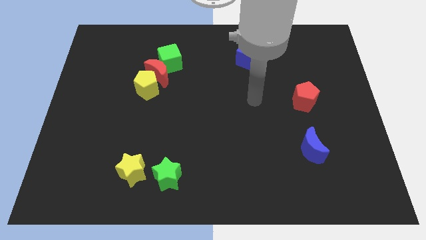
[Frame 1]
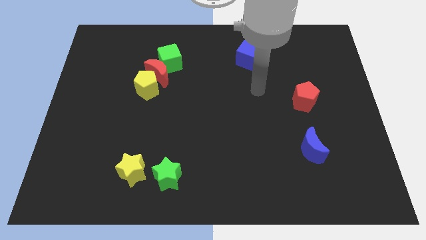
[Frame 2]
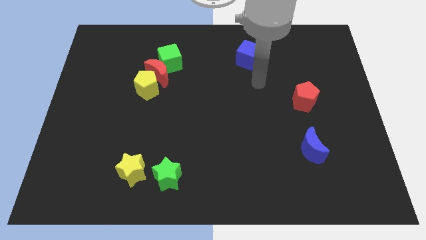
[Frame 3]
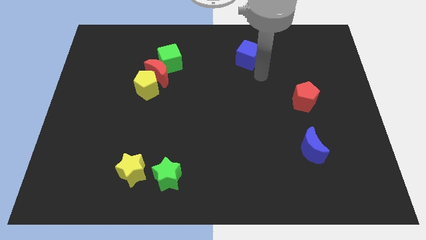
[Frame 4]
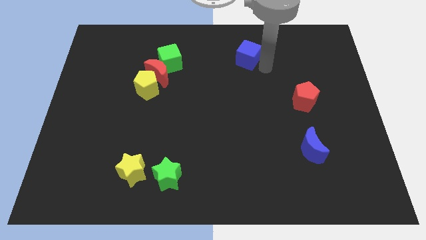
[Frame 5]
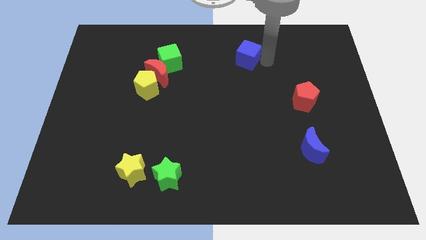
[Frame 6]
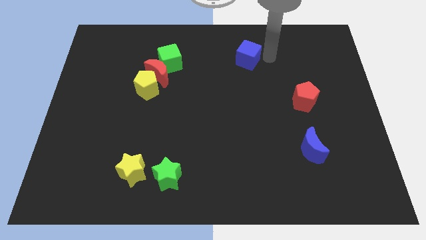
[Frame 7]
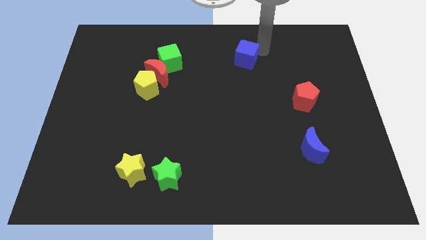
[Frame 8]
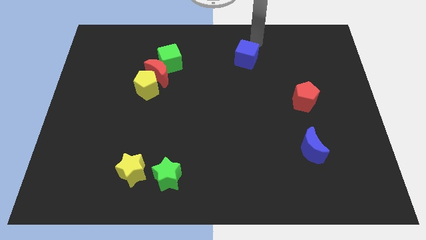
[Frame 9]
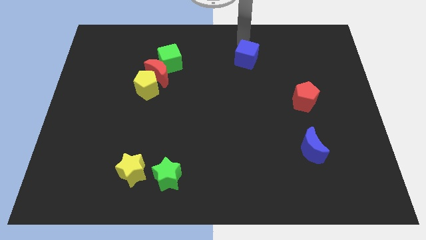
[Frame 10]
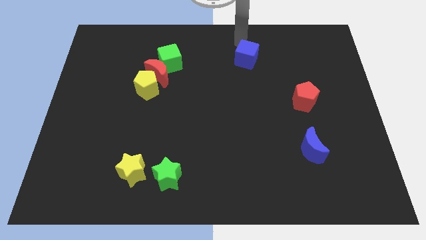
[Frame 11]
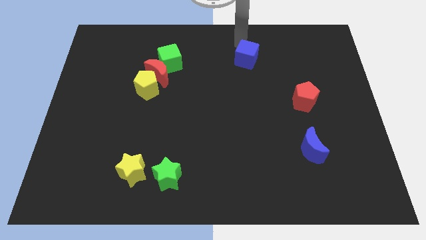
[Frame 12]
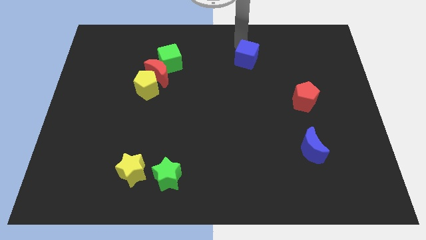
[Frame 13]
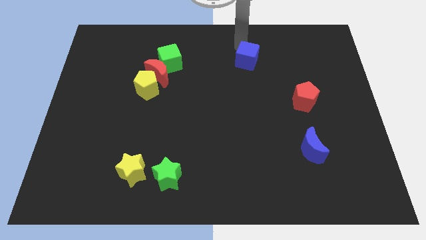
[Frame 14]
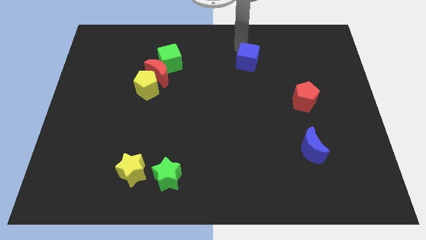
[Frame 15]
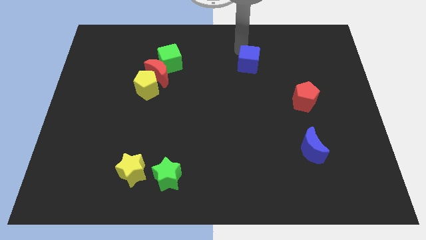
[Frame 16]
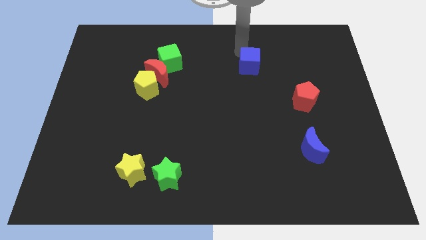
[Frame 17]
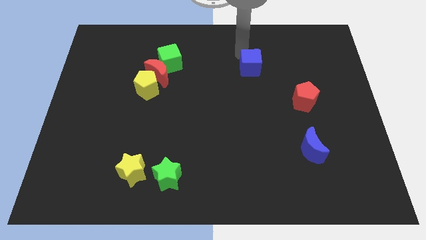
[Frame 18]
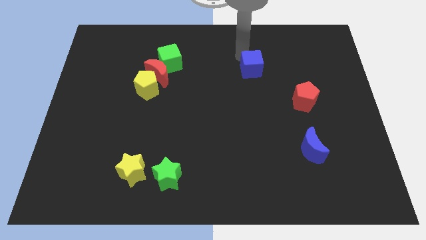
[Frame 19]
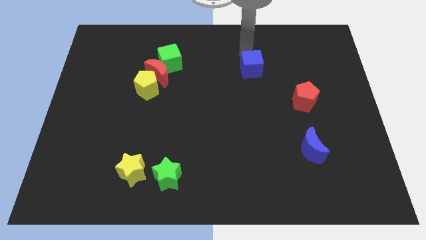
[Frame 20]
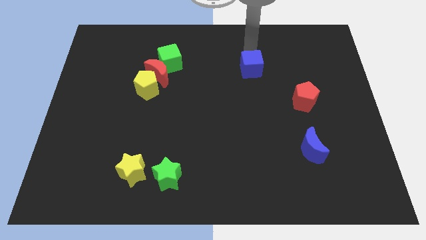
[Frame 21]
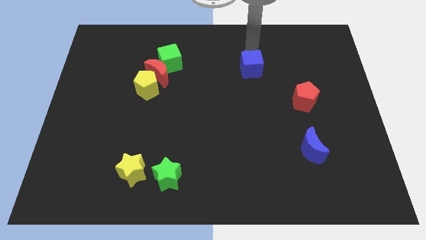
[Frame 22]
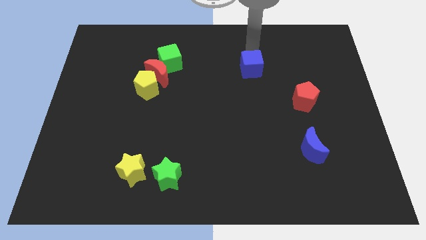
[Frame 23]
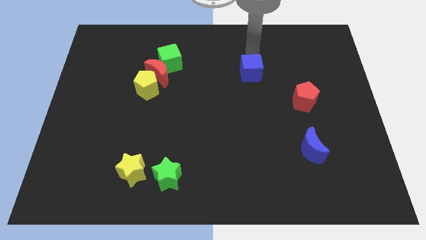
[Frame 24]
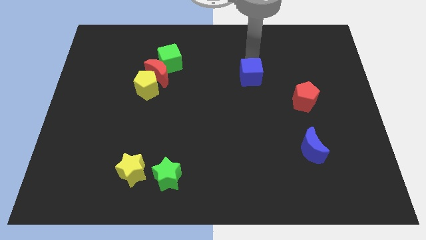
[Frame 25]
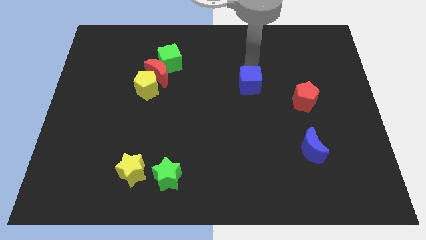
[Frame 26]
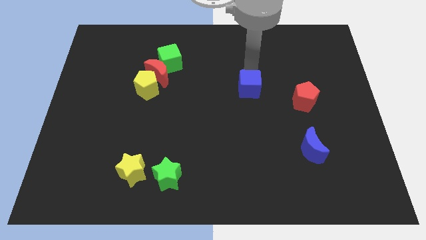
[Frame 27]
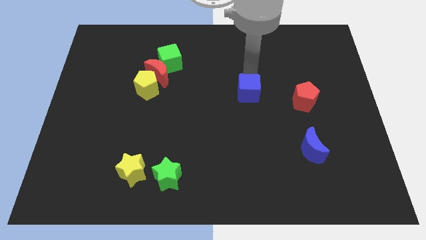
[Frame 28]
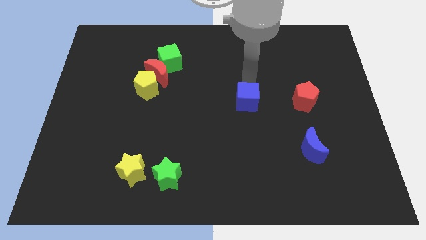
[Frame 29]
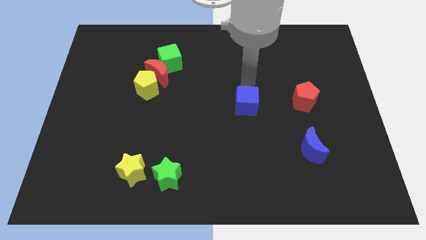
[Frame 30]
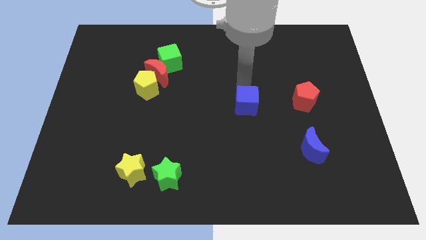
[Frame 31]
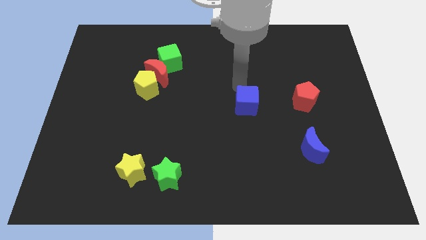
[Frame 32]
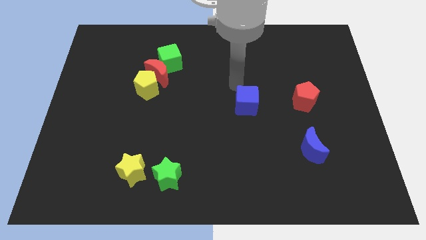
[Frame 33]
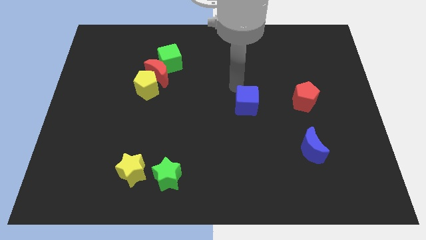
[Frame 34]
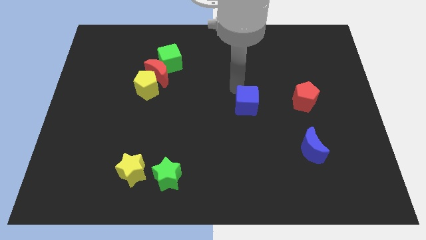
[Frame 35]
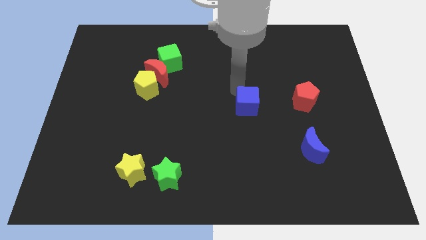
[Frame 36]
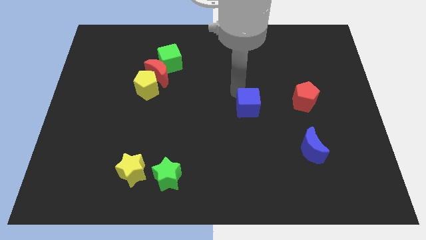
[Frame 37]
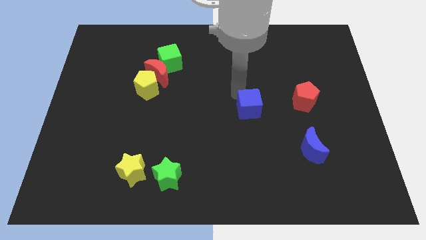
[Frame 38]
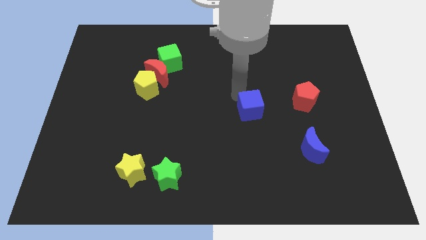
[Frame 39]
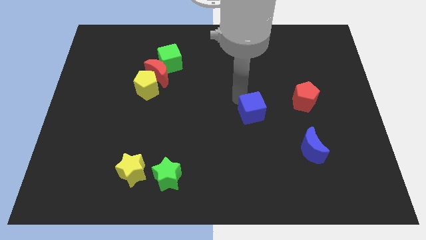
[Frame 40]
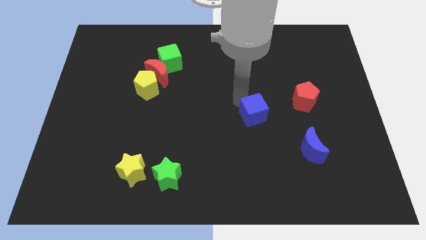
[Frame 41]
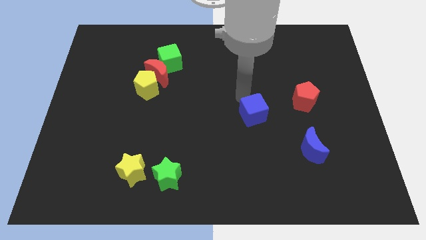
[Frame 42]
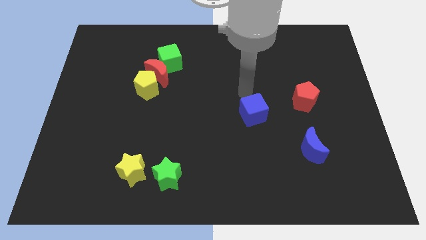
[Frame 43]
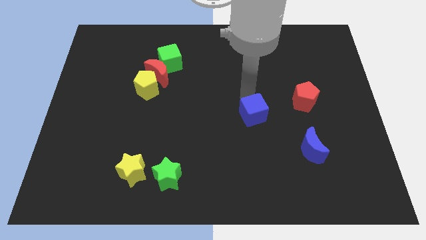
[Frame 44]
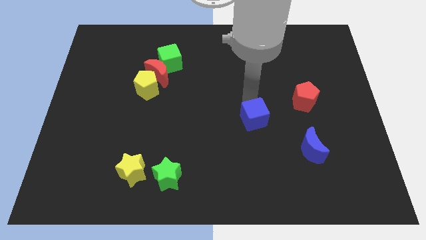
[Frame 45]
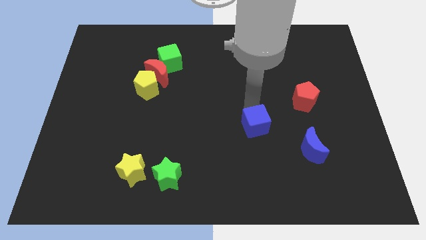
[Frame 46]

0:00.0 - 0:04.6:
move the blue cube downwards

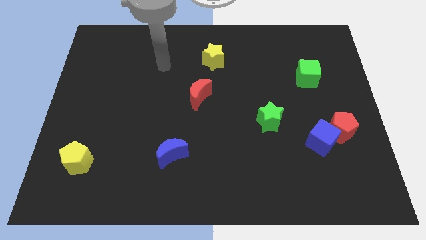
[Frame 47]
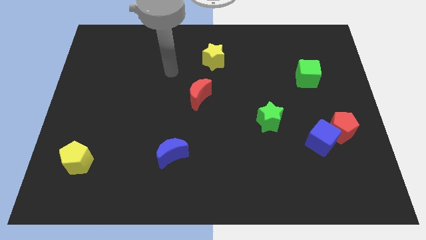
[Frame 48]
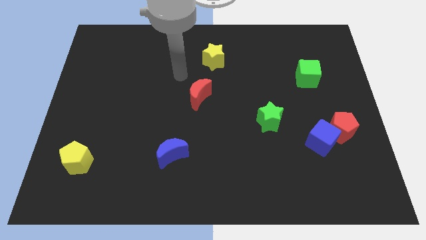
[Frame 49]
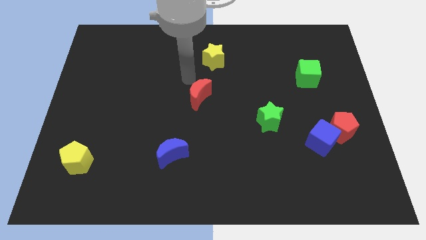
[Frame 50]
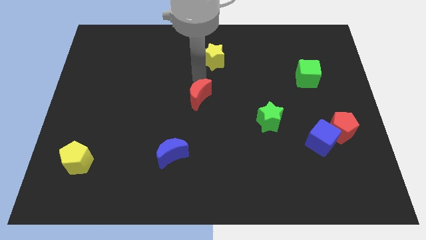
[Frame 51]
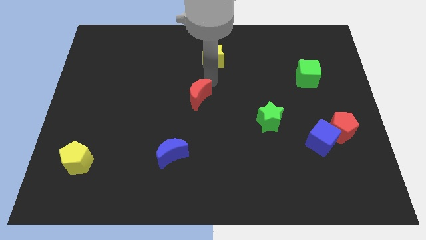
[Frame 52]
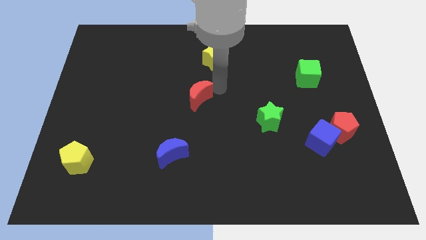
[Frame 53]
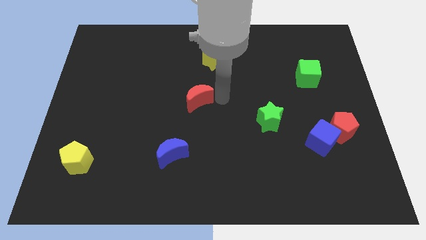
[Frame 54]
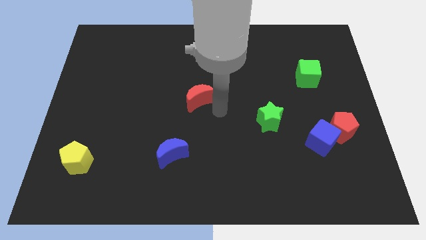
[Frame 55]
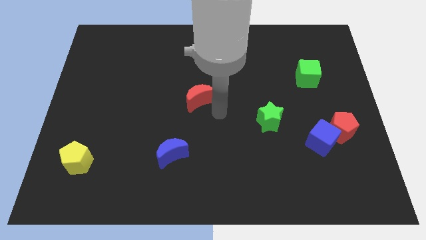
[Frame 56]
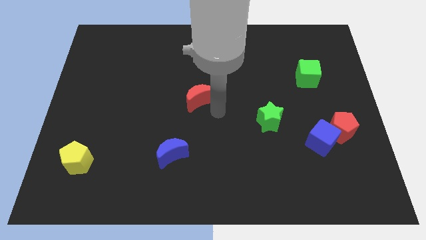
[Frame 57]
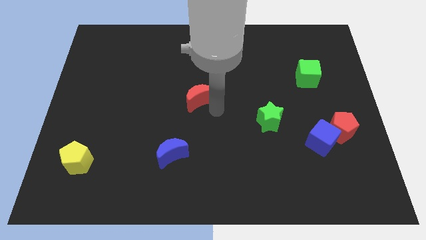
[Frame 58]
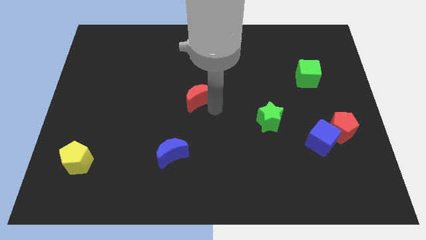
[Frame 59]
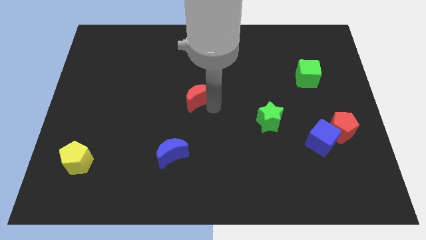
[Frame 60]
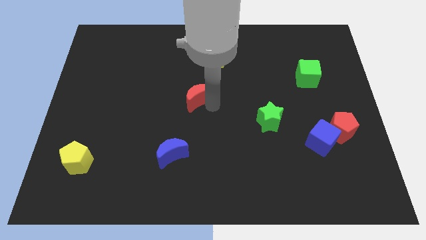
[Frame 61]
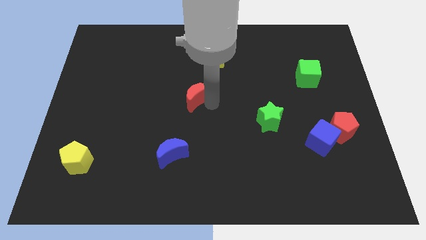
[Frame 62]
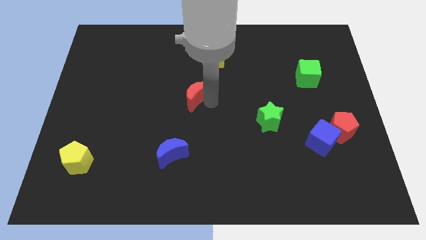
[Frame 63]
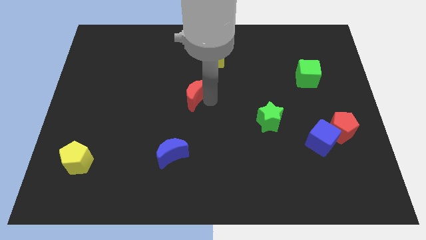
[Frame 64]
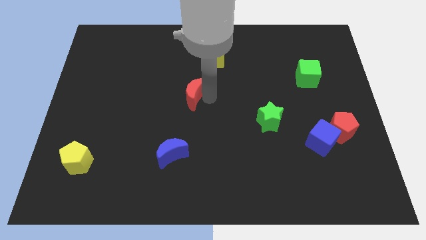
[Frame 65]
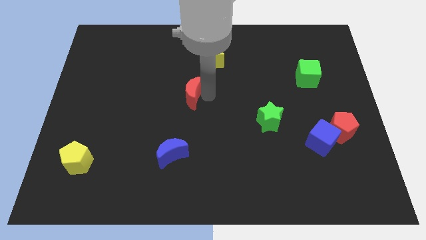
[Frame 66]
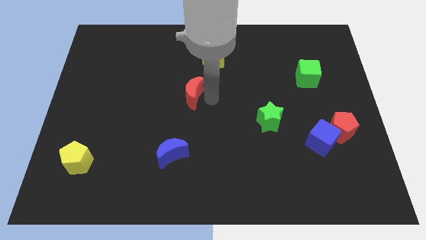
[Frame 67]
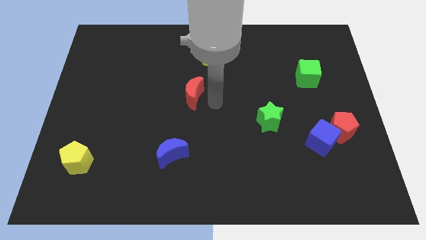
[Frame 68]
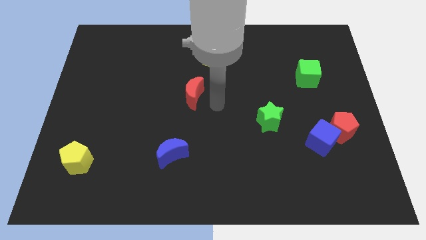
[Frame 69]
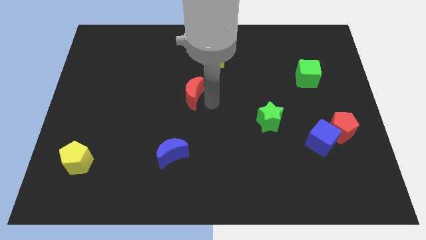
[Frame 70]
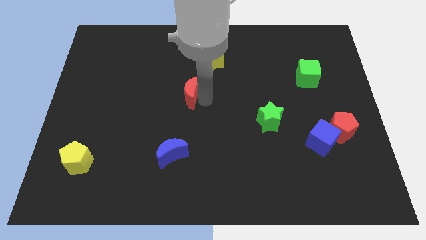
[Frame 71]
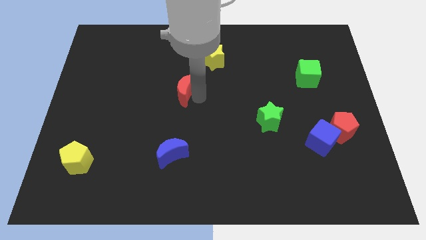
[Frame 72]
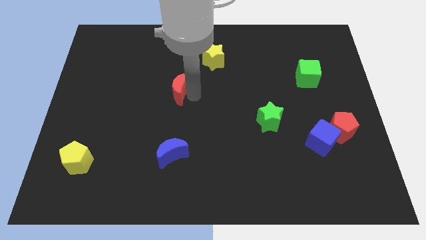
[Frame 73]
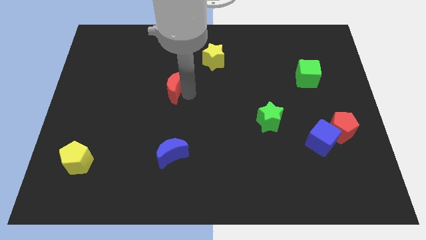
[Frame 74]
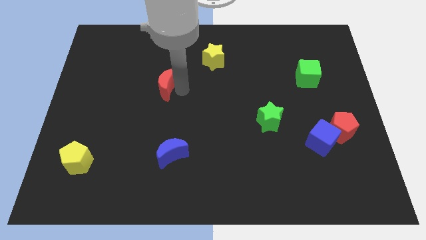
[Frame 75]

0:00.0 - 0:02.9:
push the red moon to the left a little bit

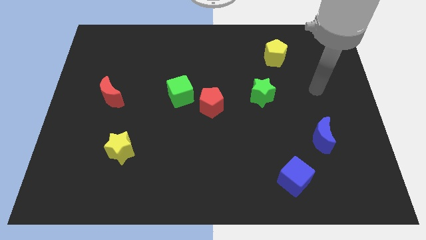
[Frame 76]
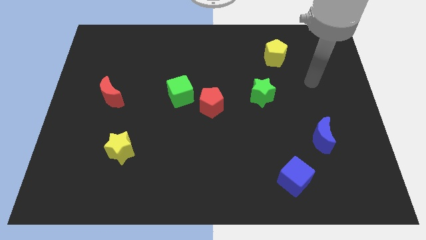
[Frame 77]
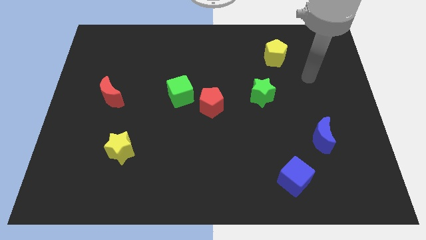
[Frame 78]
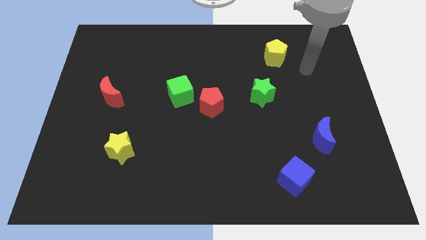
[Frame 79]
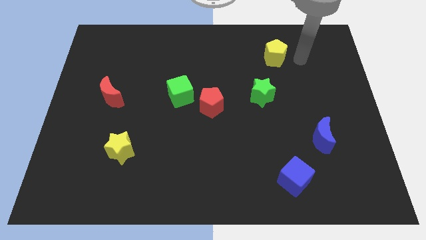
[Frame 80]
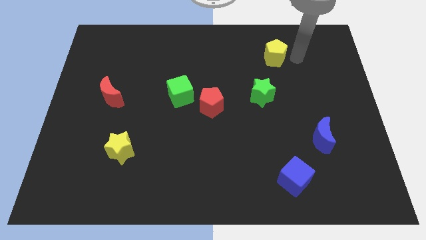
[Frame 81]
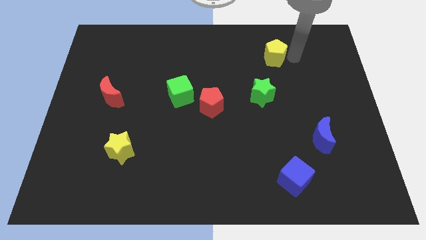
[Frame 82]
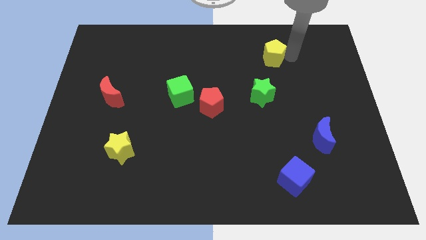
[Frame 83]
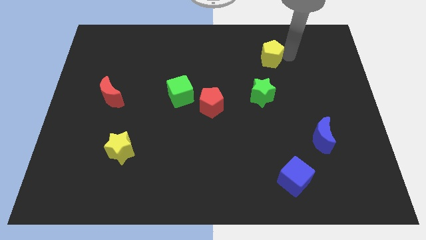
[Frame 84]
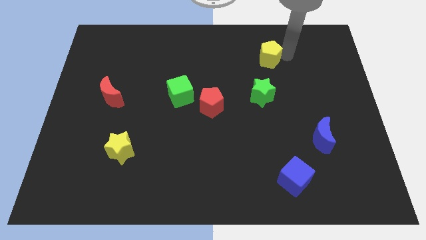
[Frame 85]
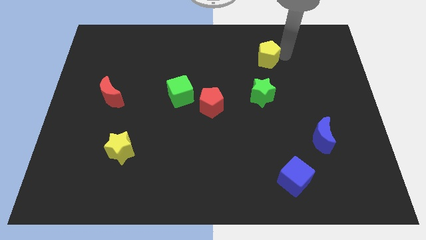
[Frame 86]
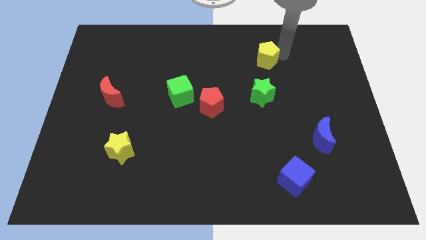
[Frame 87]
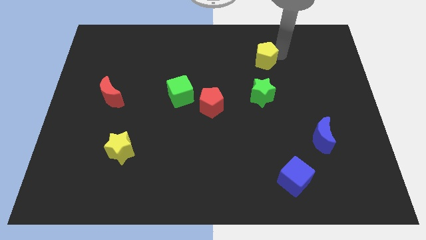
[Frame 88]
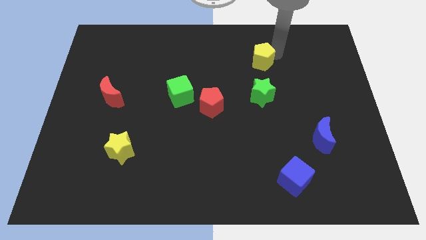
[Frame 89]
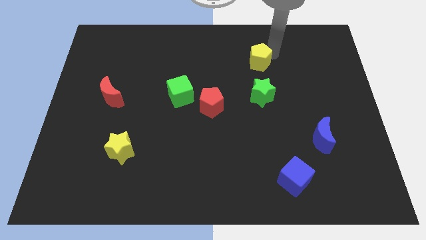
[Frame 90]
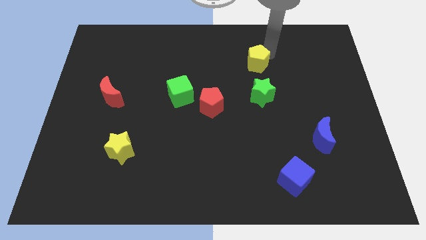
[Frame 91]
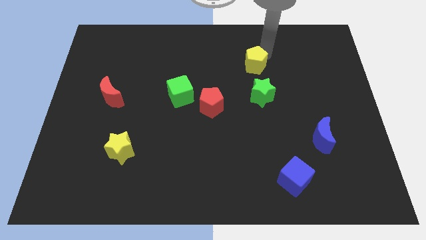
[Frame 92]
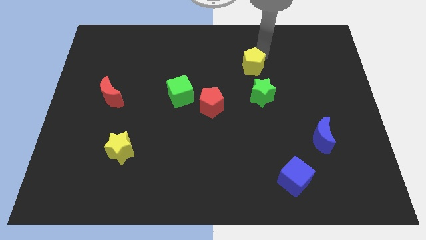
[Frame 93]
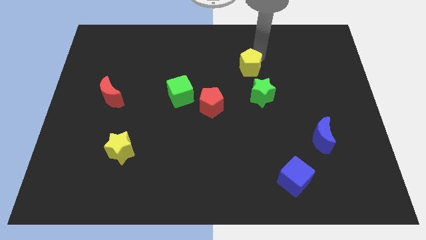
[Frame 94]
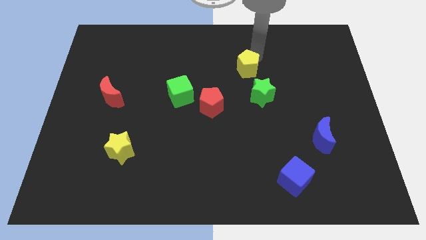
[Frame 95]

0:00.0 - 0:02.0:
move the yellow pentagon slightly to the left
